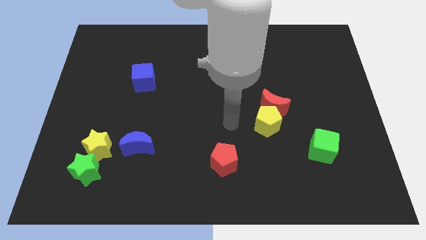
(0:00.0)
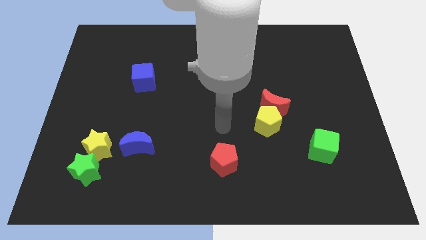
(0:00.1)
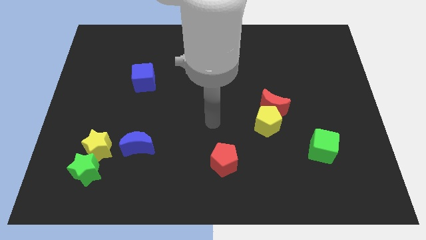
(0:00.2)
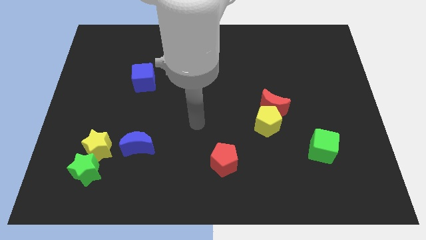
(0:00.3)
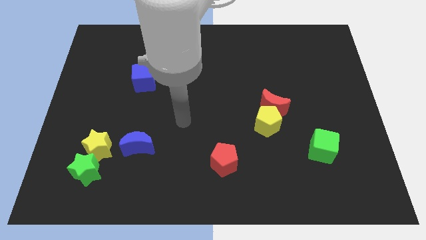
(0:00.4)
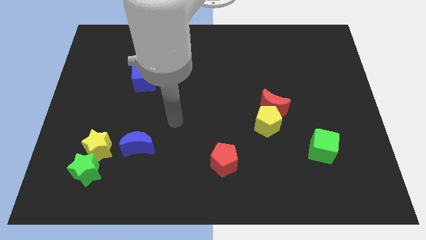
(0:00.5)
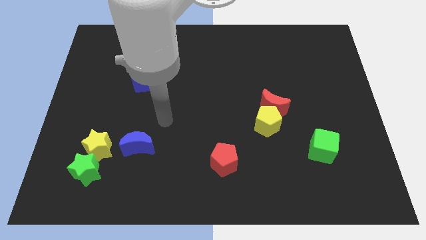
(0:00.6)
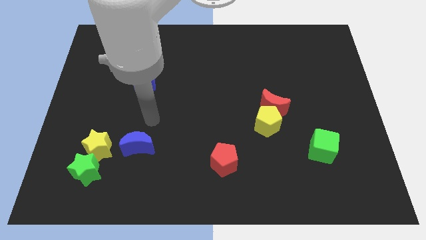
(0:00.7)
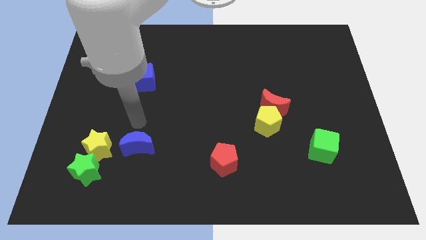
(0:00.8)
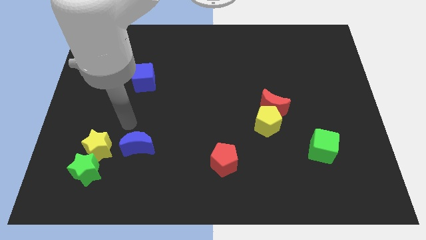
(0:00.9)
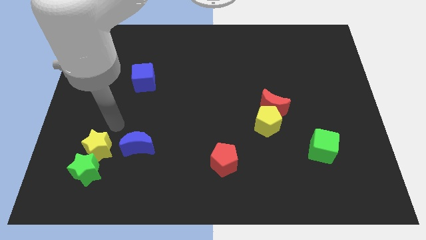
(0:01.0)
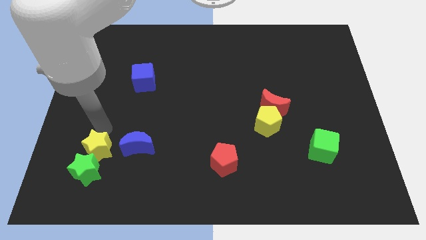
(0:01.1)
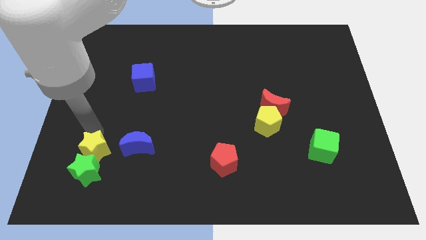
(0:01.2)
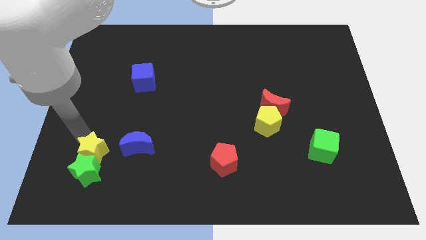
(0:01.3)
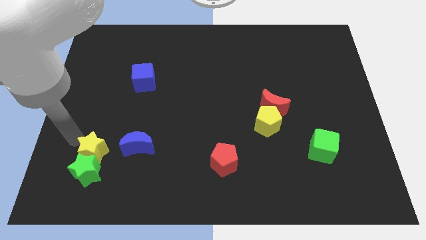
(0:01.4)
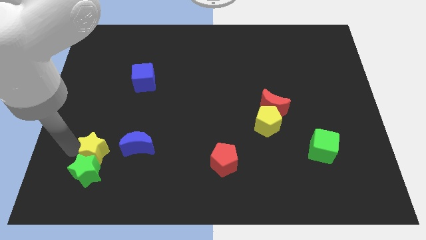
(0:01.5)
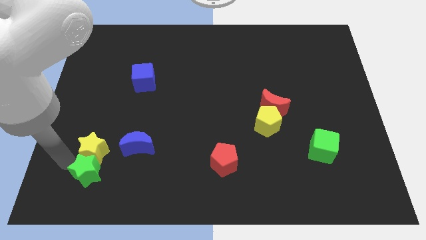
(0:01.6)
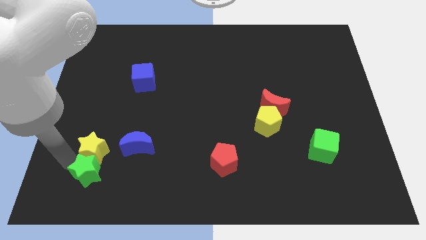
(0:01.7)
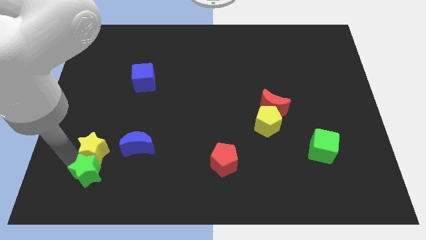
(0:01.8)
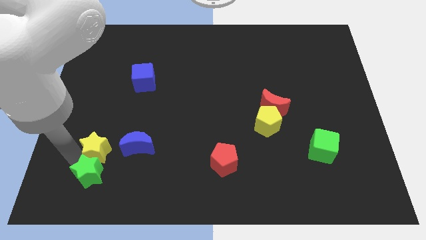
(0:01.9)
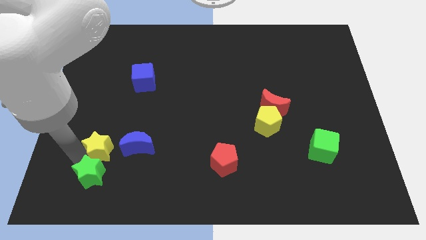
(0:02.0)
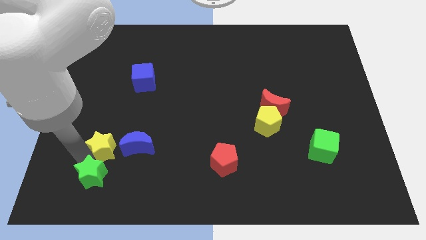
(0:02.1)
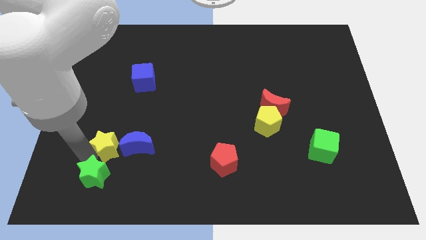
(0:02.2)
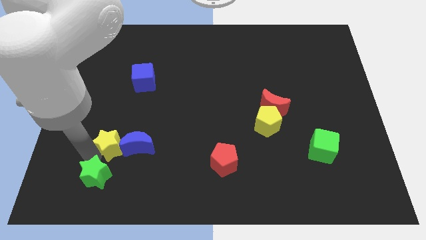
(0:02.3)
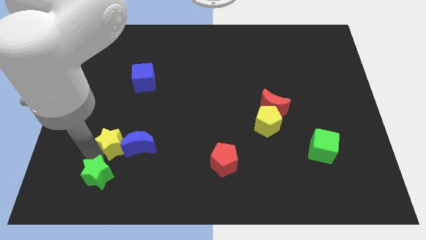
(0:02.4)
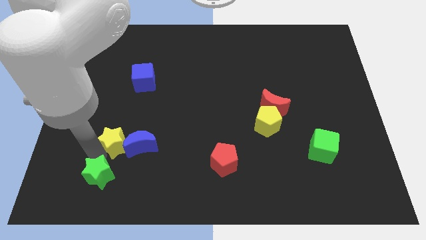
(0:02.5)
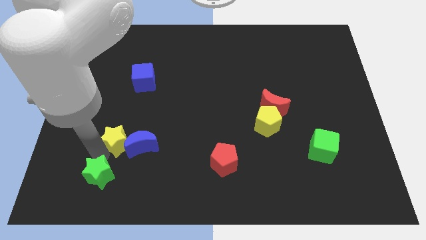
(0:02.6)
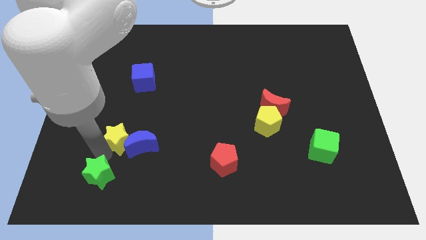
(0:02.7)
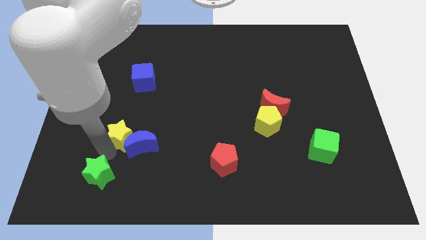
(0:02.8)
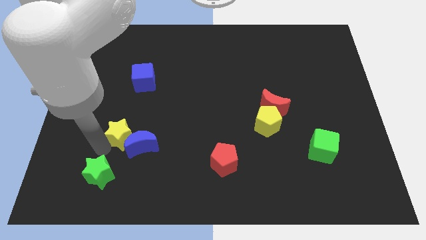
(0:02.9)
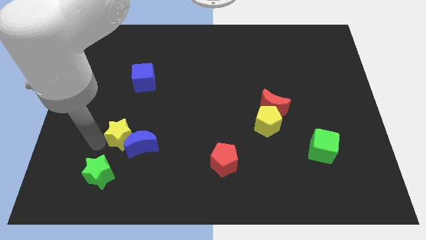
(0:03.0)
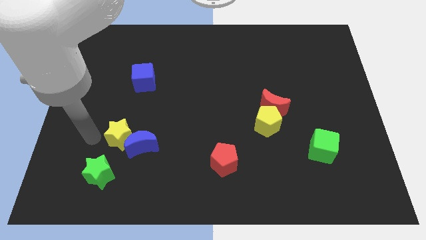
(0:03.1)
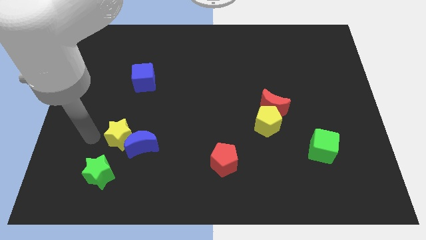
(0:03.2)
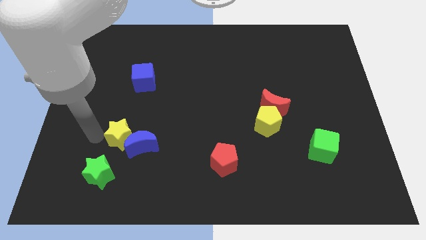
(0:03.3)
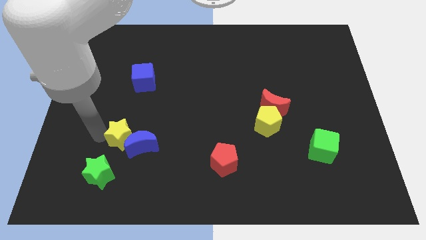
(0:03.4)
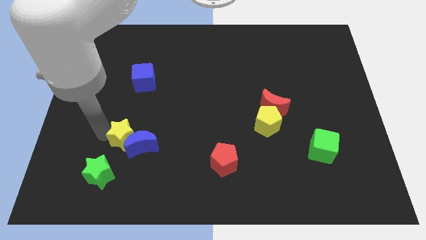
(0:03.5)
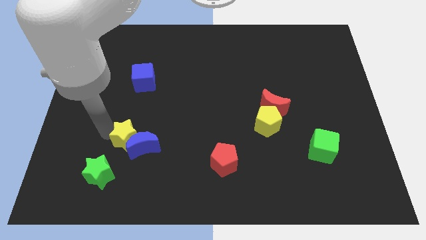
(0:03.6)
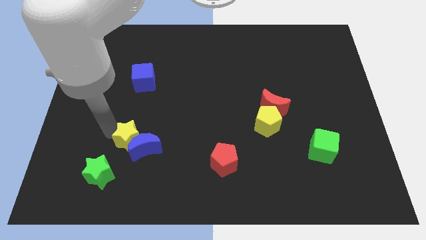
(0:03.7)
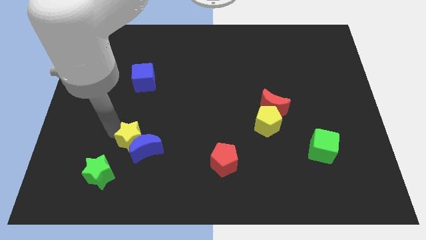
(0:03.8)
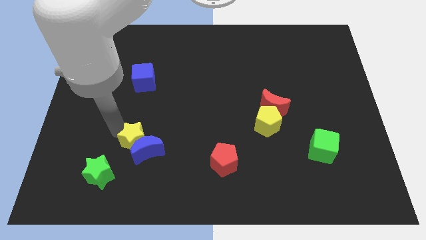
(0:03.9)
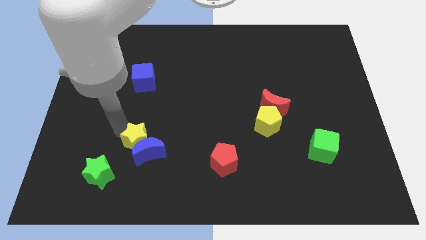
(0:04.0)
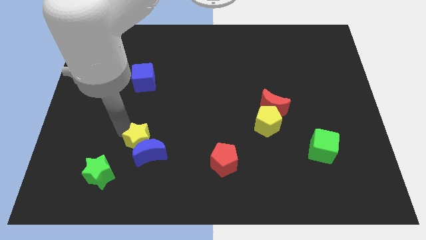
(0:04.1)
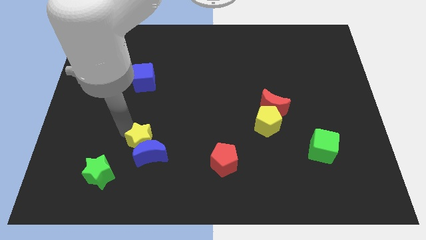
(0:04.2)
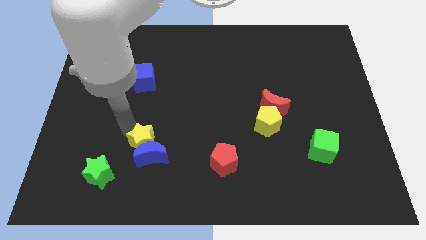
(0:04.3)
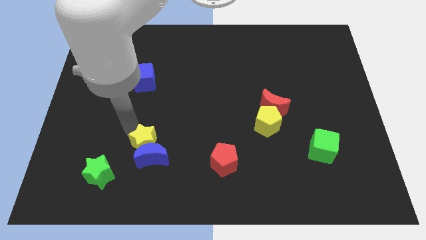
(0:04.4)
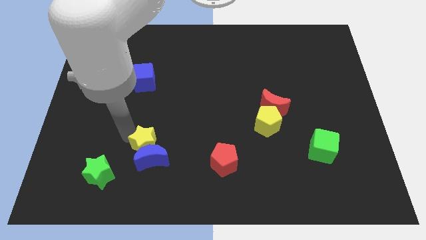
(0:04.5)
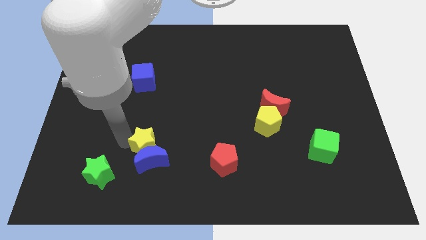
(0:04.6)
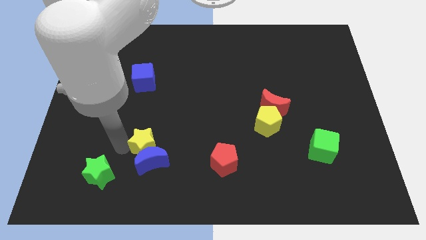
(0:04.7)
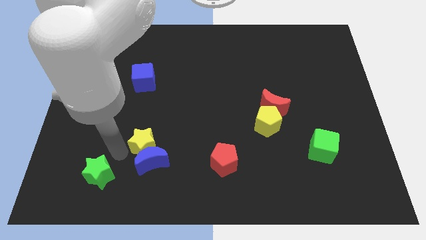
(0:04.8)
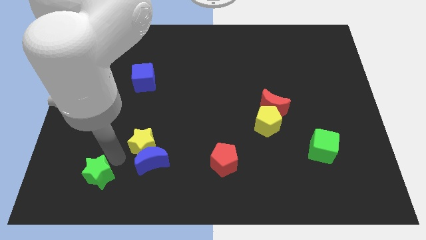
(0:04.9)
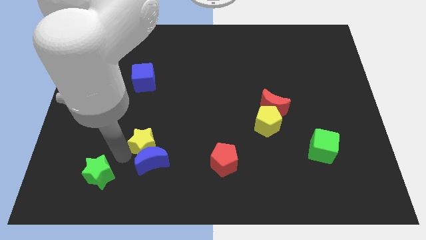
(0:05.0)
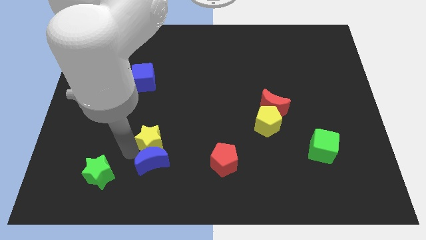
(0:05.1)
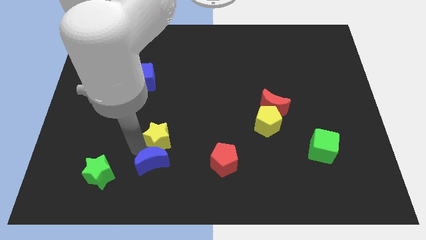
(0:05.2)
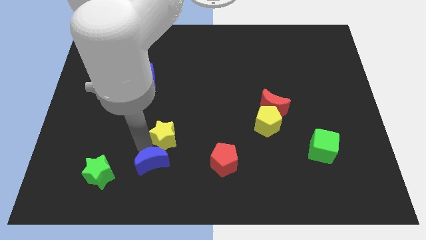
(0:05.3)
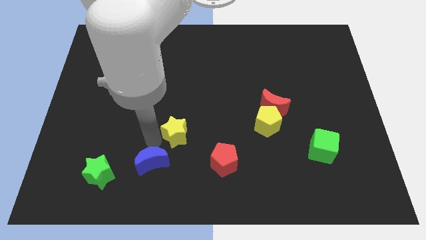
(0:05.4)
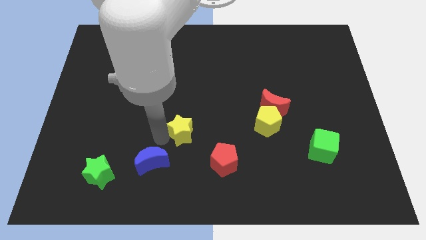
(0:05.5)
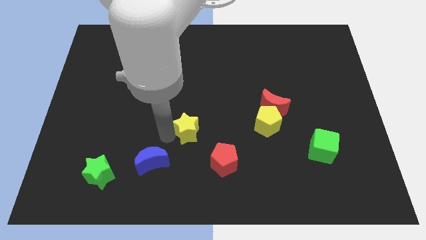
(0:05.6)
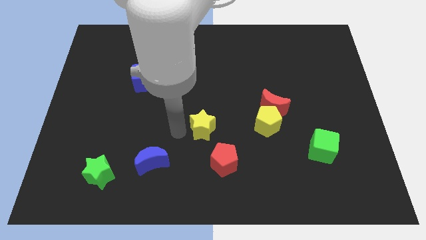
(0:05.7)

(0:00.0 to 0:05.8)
move the yellow star right

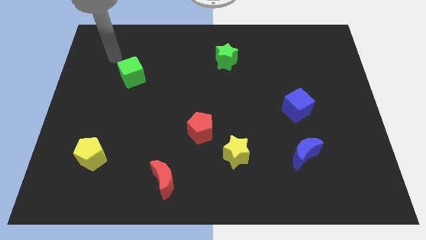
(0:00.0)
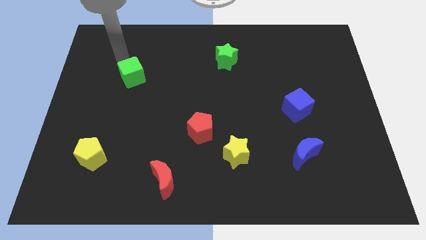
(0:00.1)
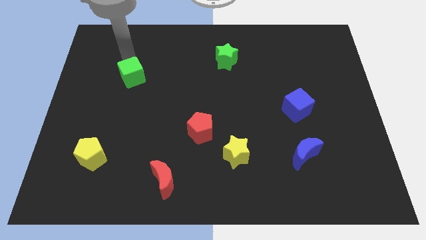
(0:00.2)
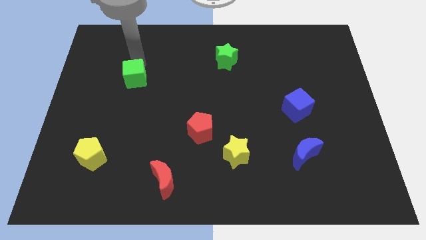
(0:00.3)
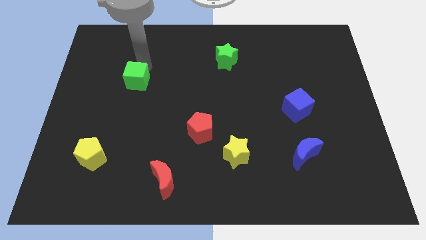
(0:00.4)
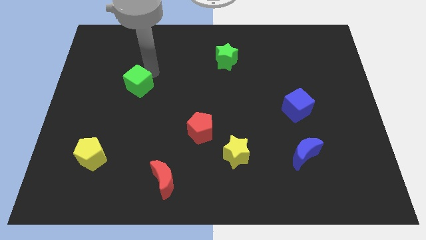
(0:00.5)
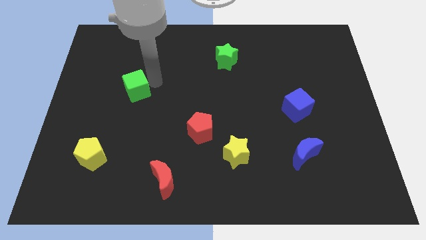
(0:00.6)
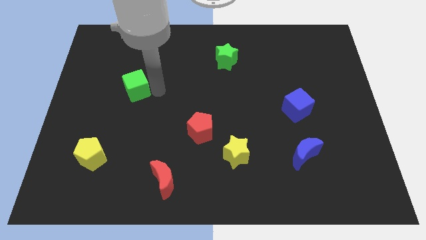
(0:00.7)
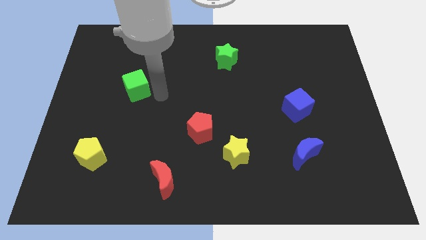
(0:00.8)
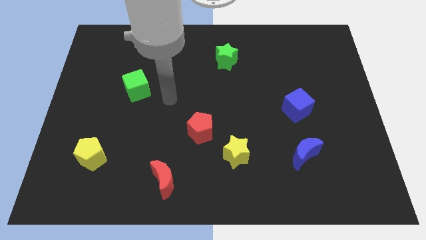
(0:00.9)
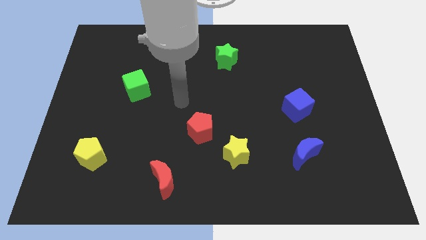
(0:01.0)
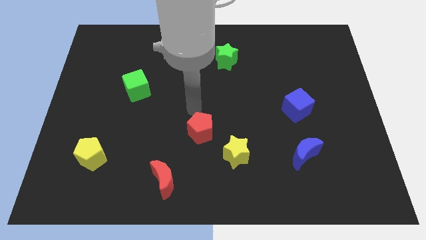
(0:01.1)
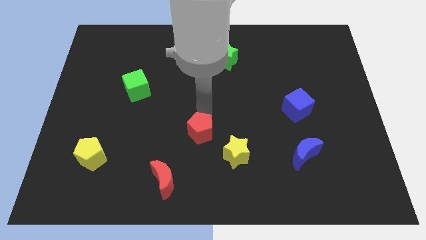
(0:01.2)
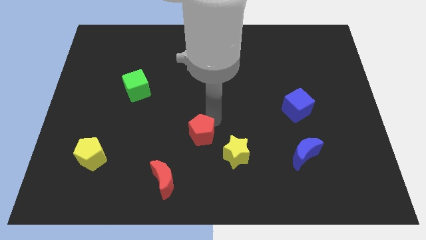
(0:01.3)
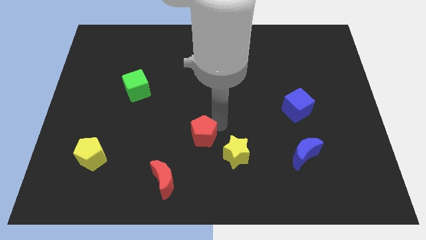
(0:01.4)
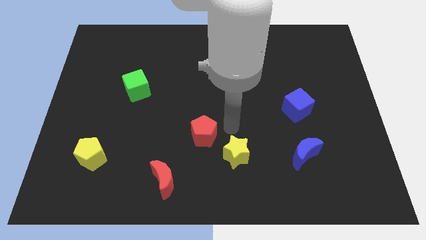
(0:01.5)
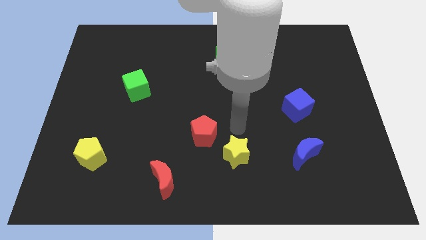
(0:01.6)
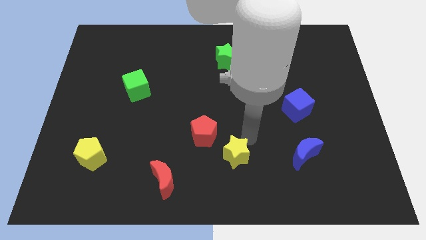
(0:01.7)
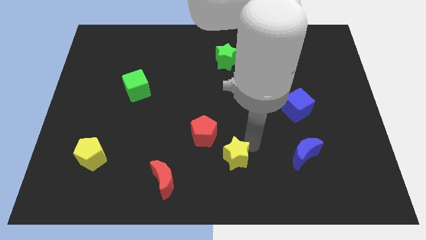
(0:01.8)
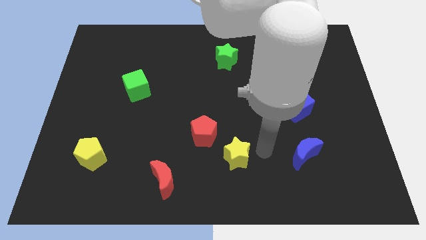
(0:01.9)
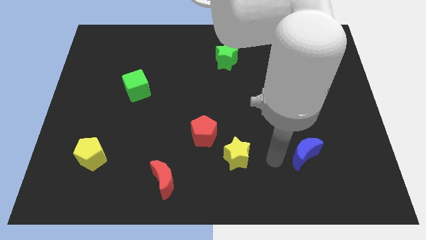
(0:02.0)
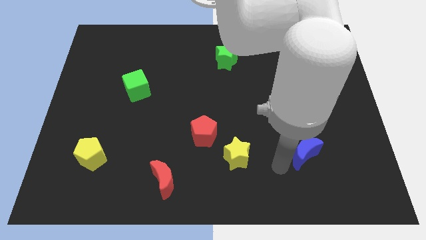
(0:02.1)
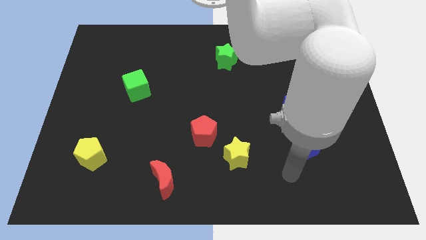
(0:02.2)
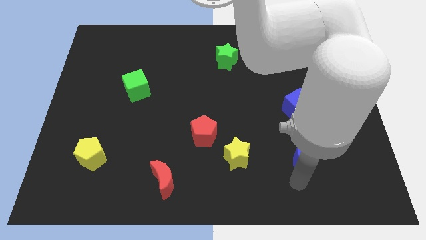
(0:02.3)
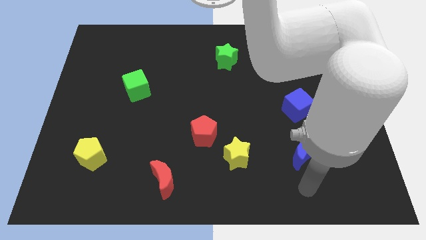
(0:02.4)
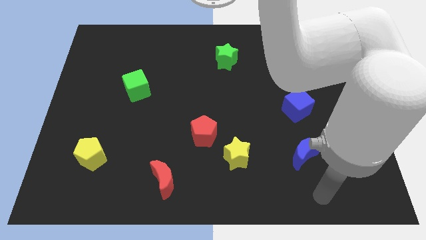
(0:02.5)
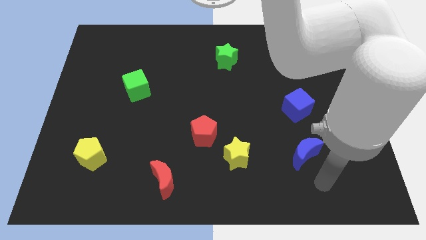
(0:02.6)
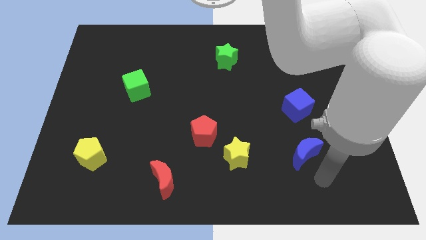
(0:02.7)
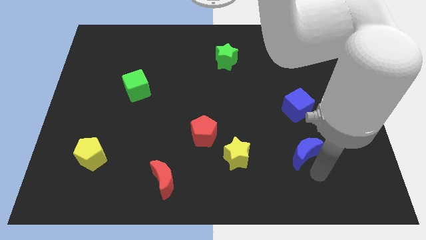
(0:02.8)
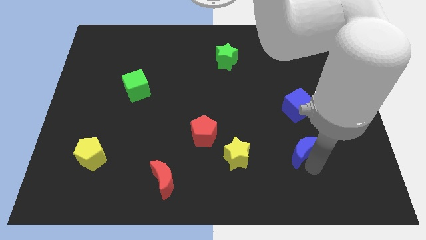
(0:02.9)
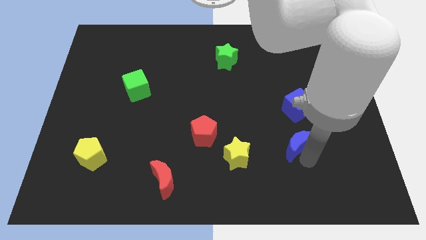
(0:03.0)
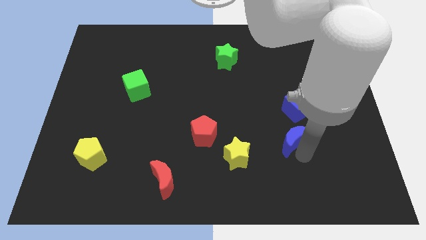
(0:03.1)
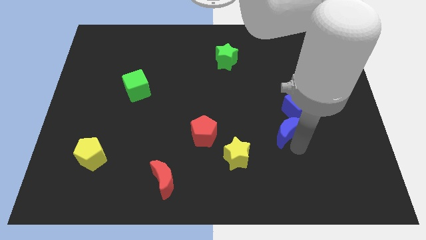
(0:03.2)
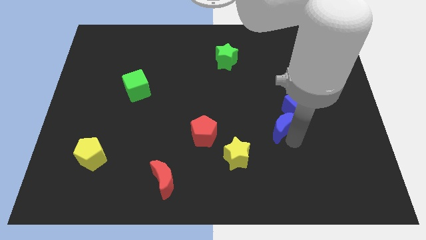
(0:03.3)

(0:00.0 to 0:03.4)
slide the blue moon upwards and to the left a little bit
